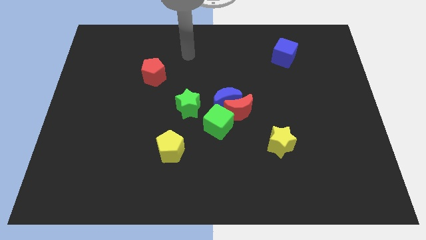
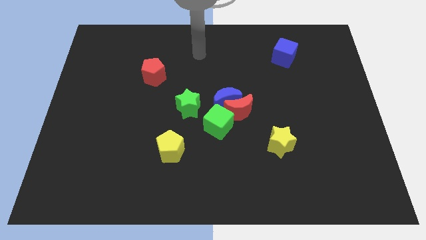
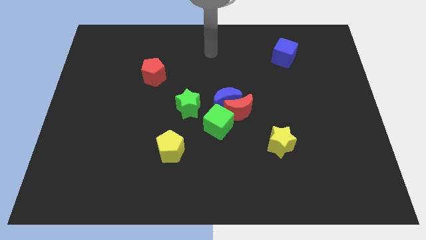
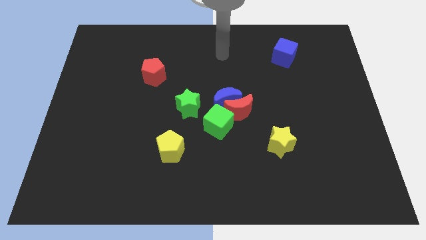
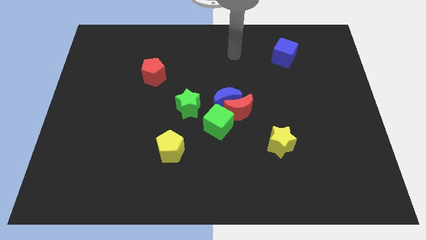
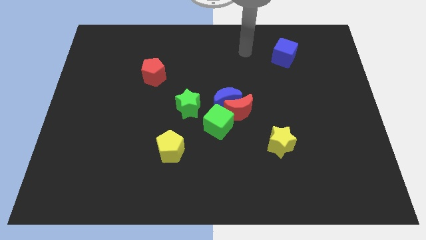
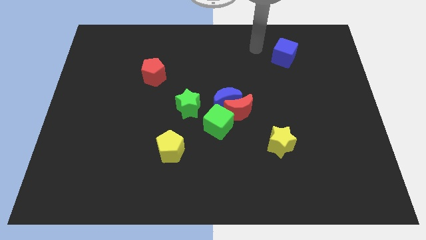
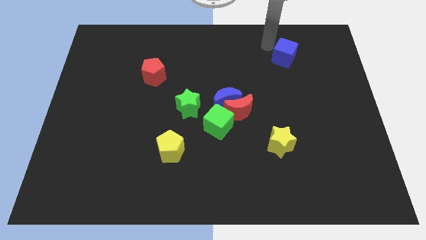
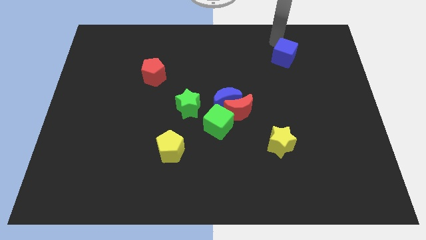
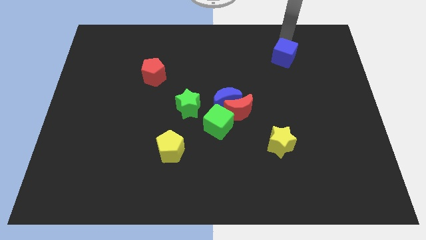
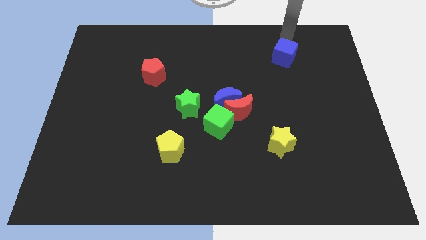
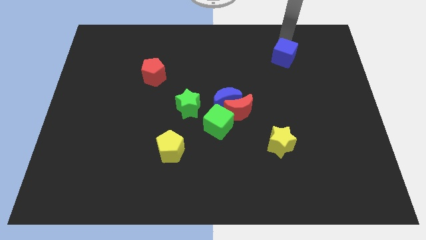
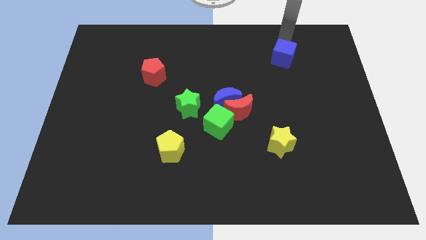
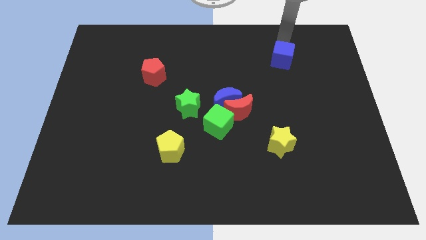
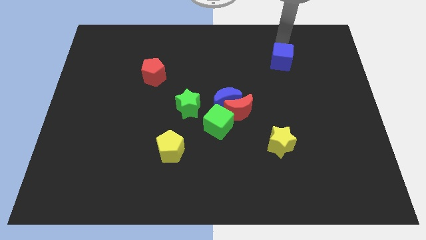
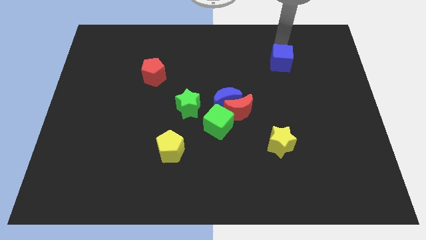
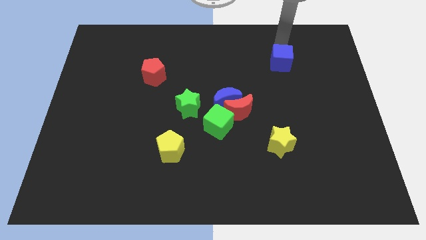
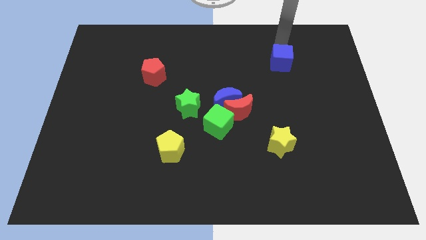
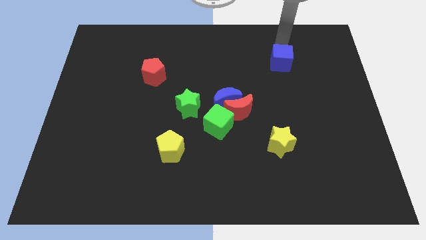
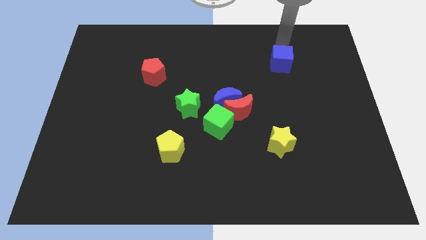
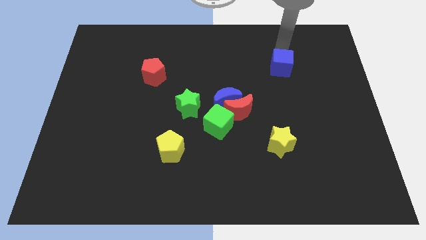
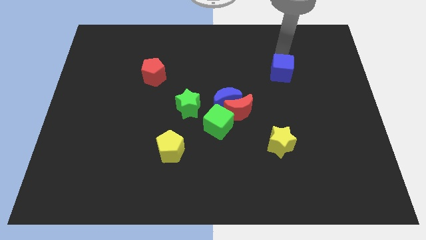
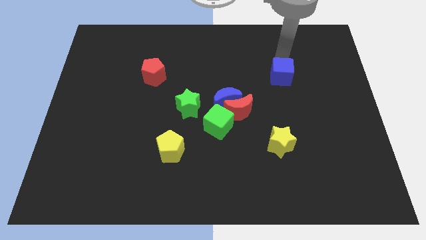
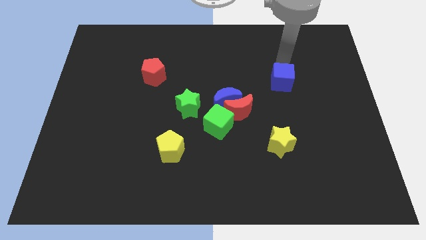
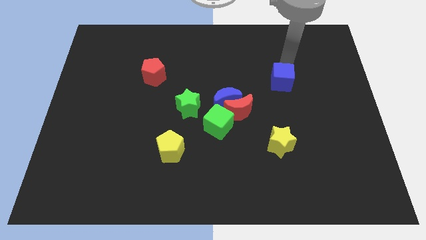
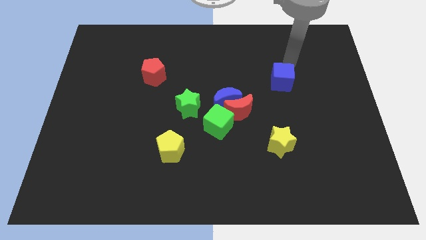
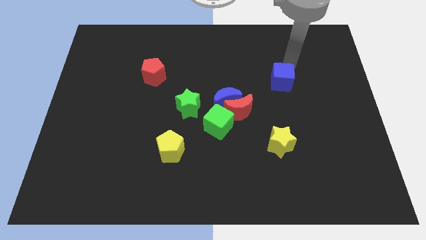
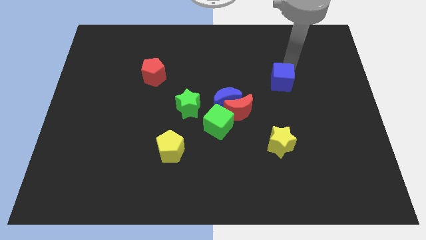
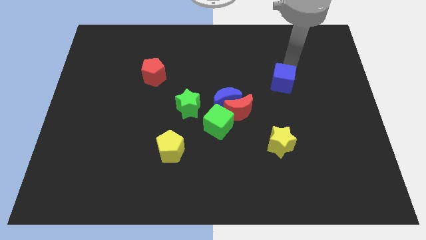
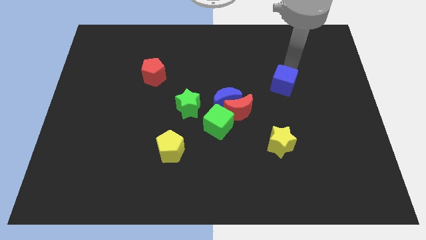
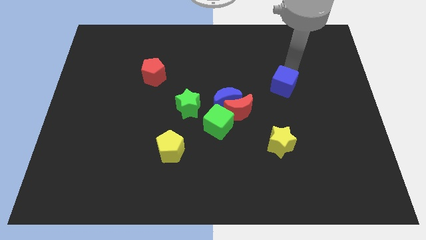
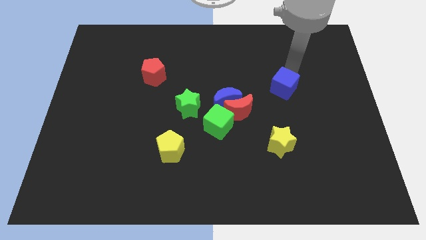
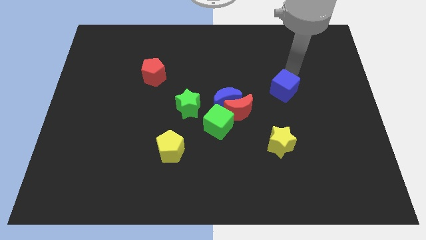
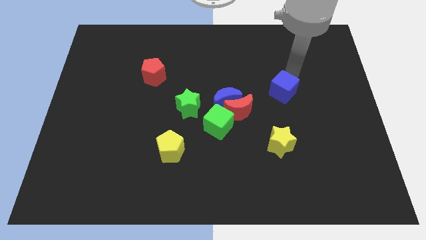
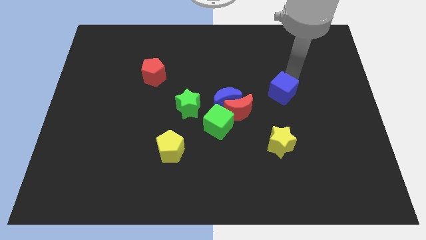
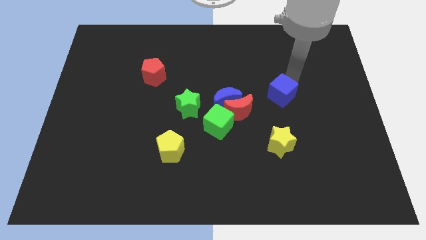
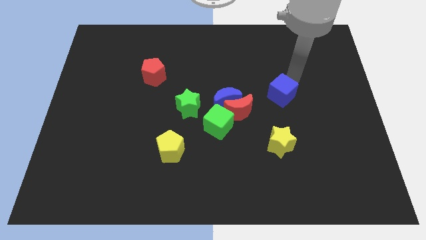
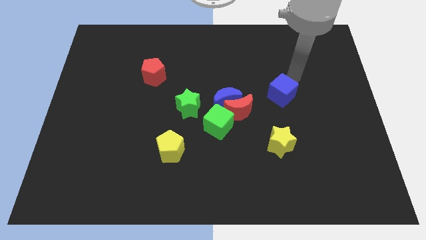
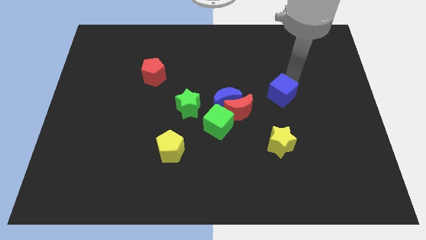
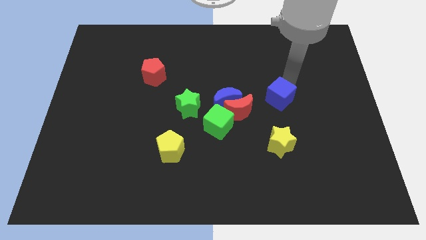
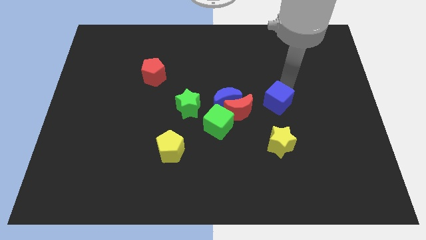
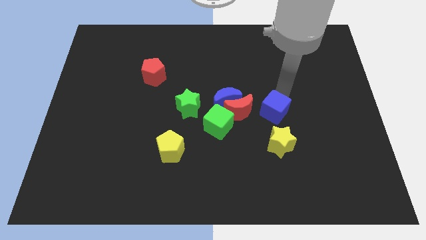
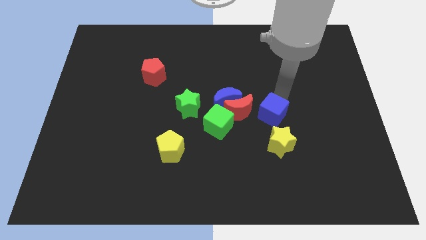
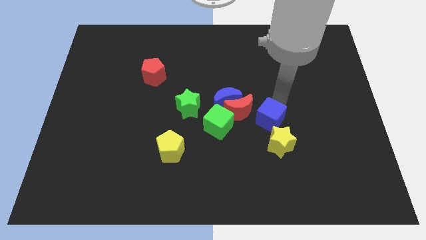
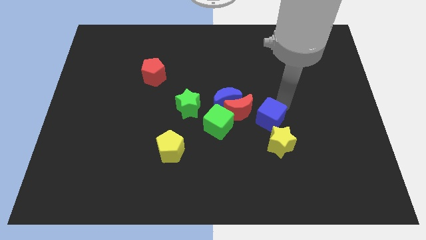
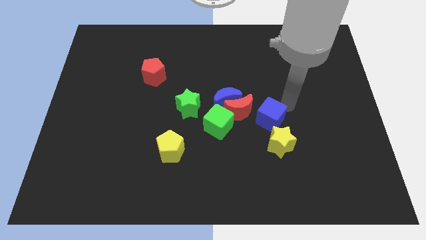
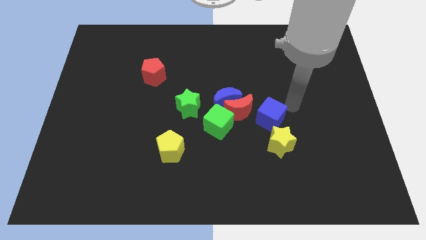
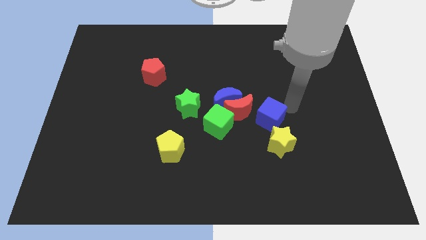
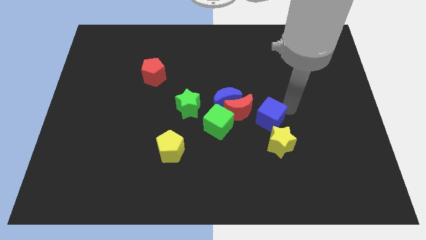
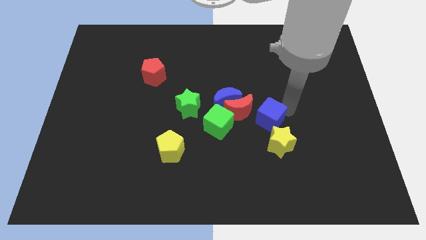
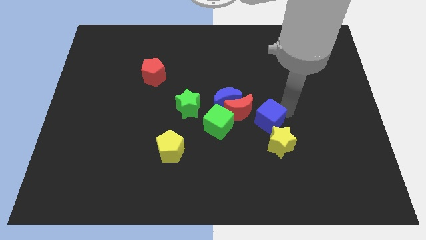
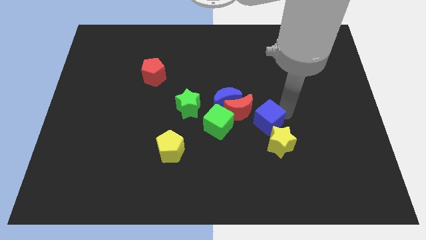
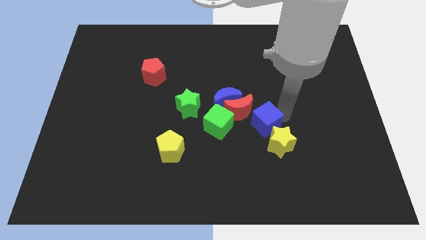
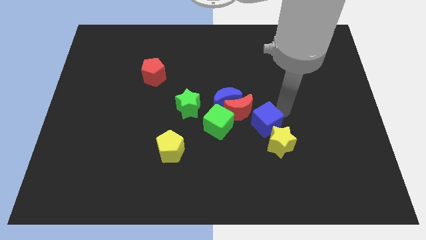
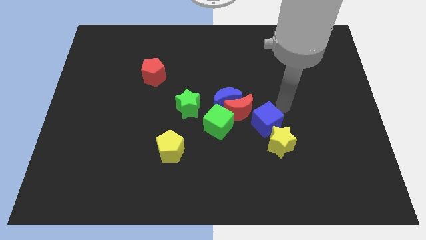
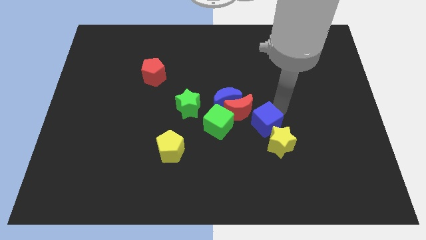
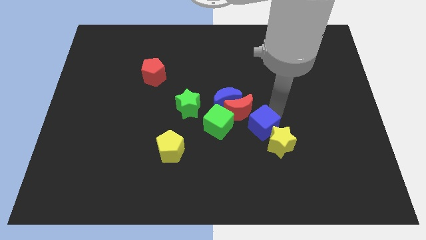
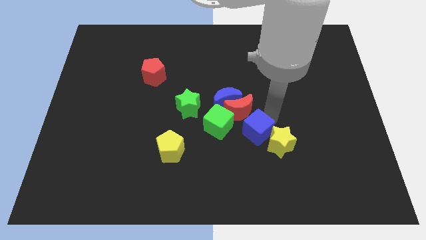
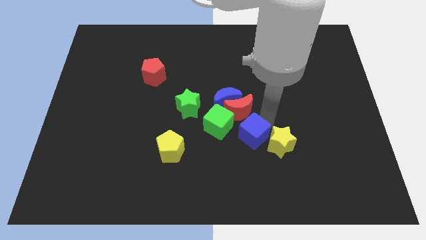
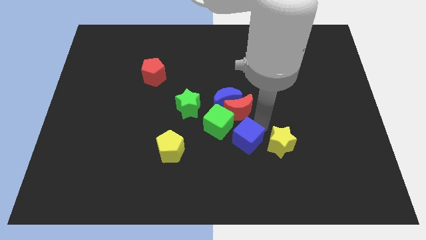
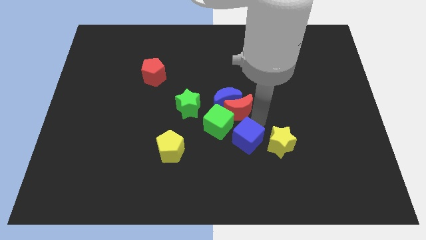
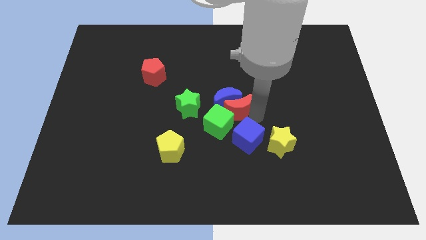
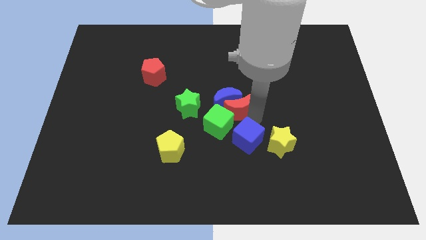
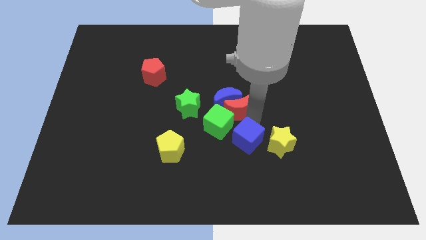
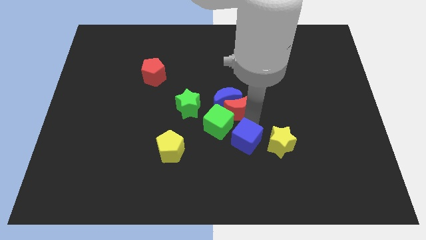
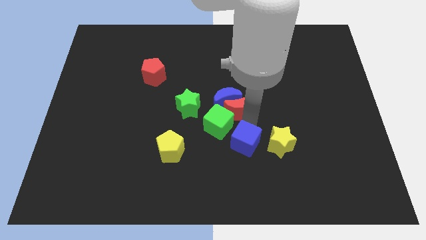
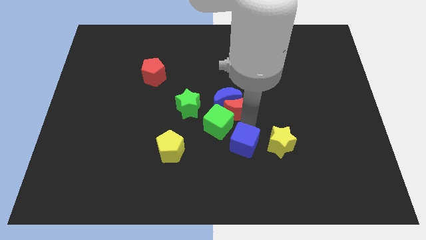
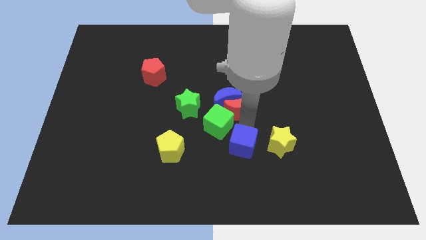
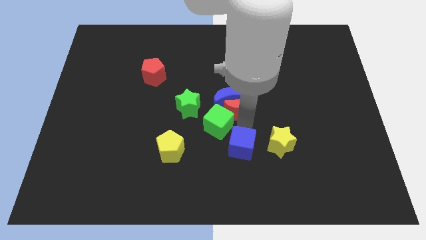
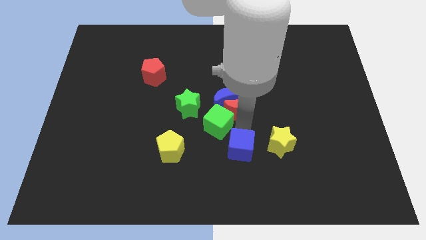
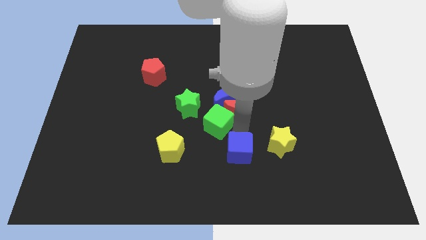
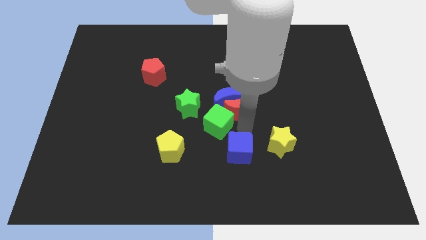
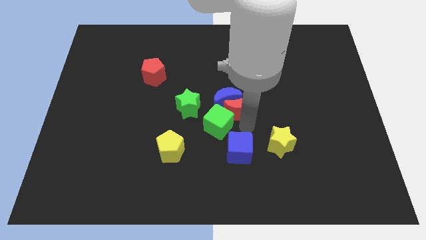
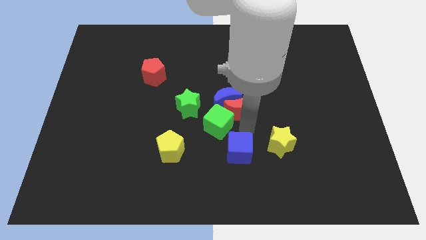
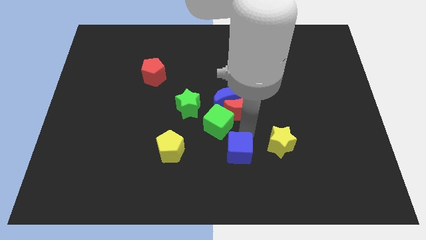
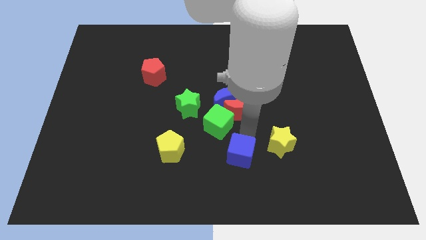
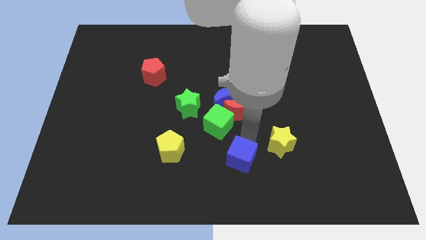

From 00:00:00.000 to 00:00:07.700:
slide the blue cube to the bottom side
